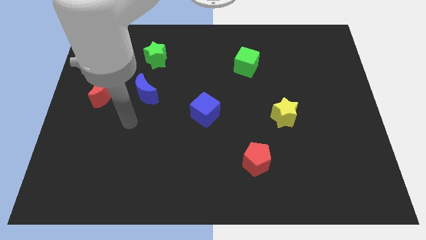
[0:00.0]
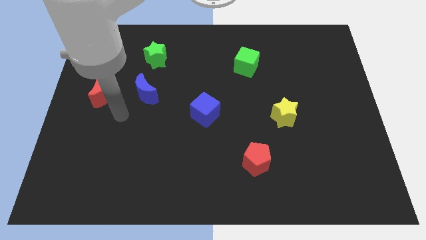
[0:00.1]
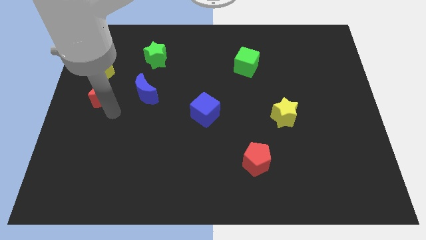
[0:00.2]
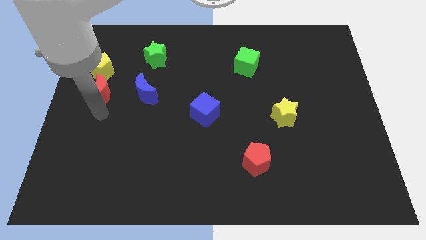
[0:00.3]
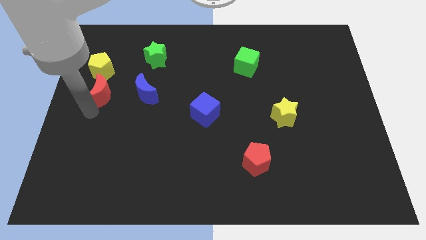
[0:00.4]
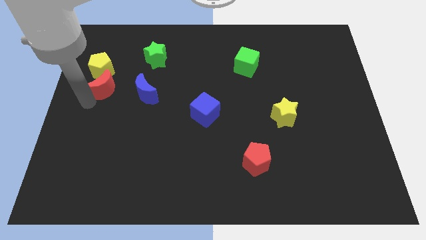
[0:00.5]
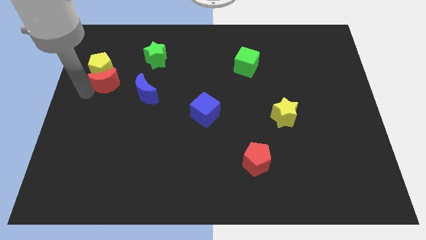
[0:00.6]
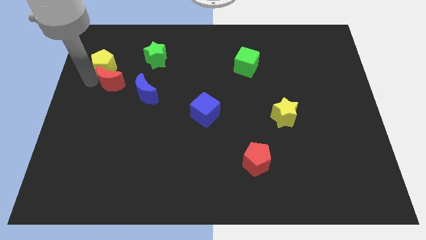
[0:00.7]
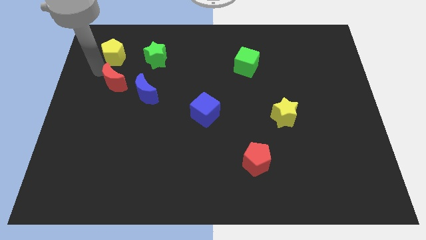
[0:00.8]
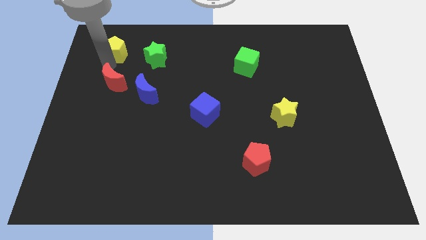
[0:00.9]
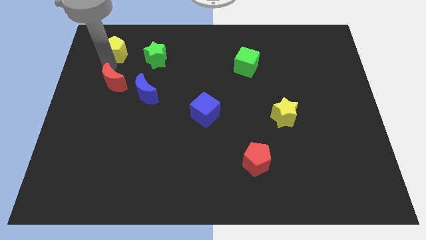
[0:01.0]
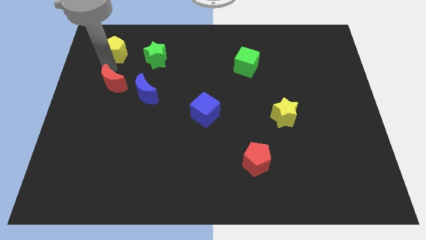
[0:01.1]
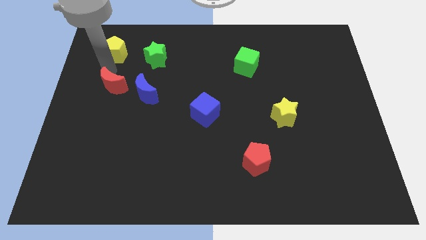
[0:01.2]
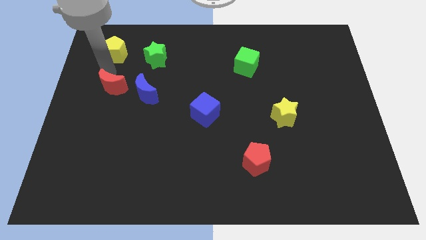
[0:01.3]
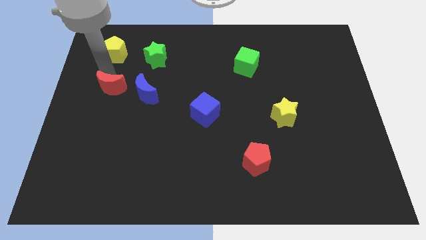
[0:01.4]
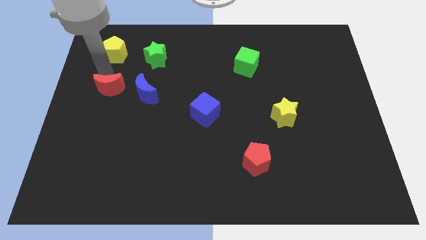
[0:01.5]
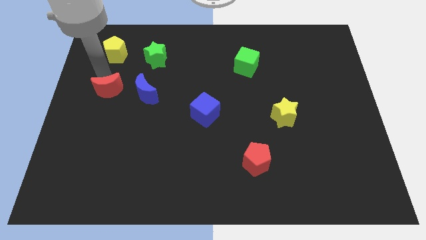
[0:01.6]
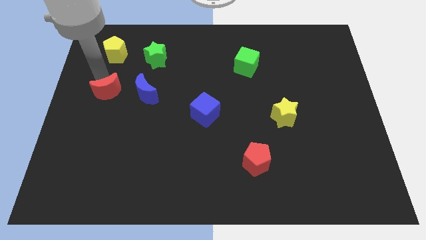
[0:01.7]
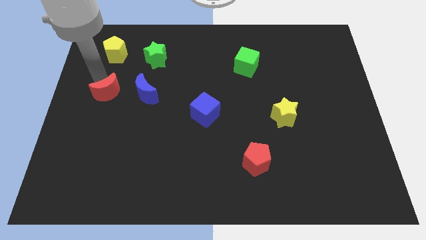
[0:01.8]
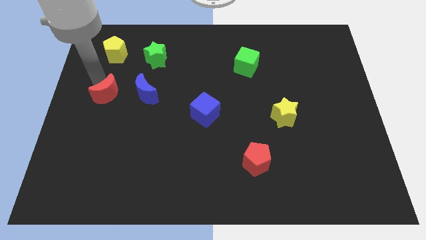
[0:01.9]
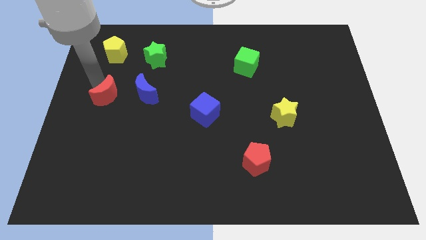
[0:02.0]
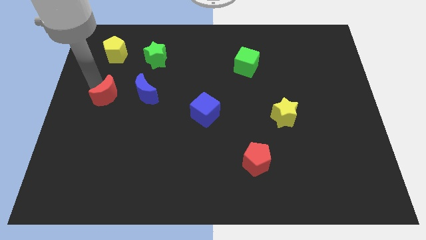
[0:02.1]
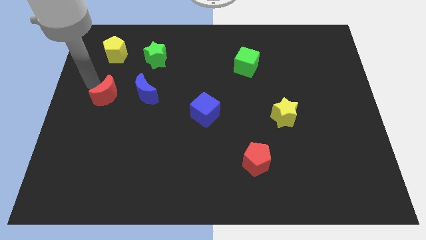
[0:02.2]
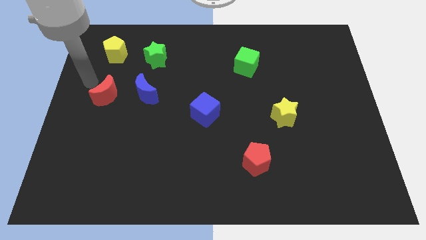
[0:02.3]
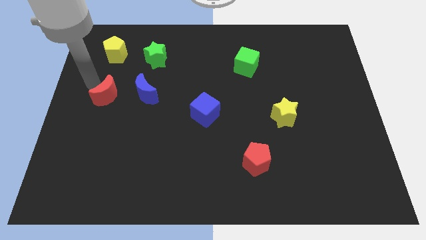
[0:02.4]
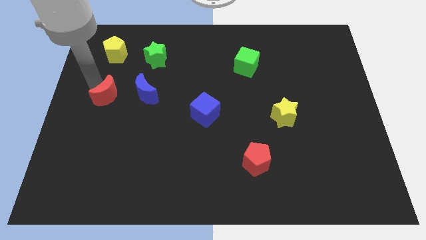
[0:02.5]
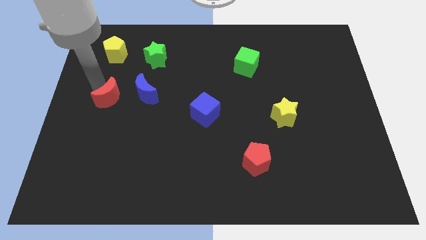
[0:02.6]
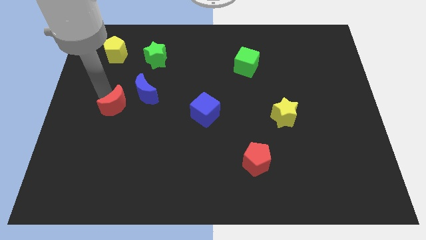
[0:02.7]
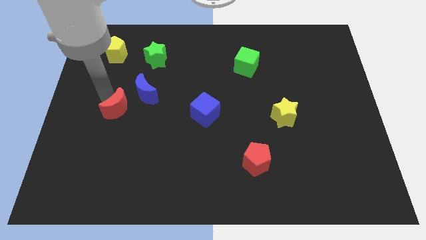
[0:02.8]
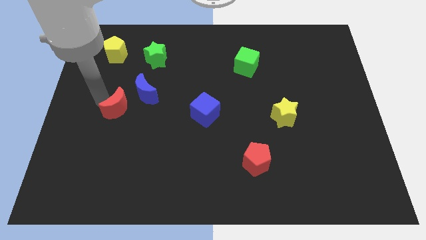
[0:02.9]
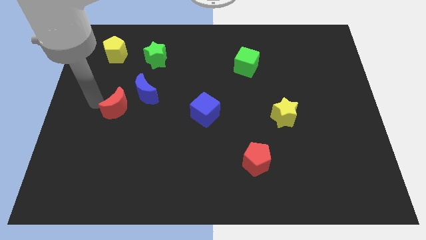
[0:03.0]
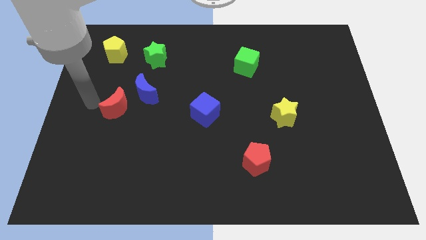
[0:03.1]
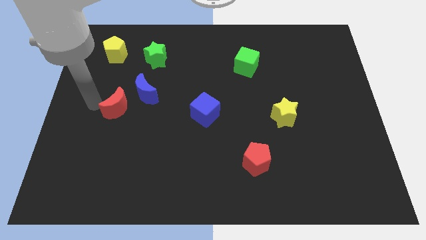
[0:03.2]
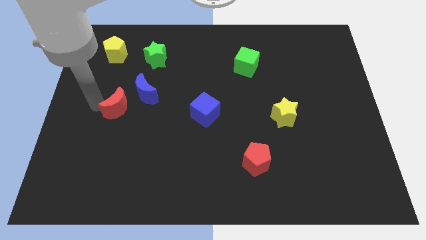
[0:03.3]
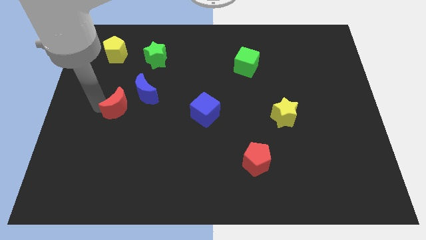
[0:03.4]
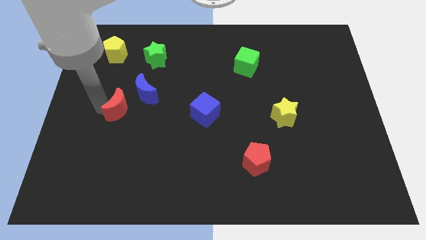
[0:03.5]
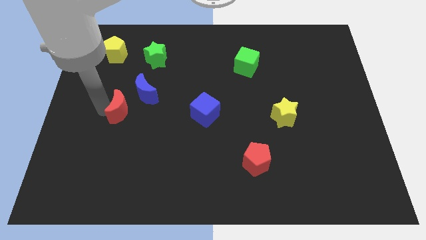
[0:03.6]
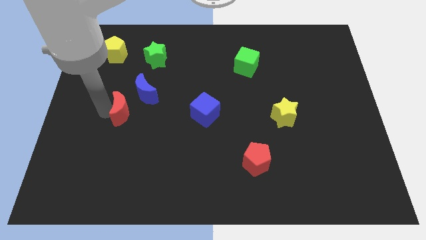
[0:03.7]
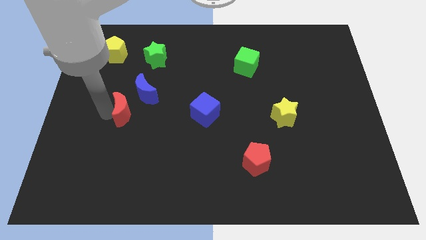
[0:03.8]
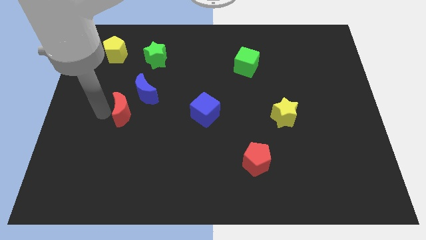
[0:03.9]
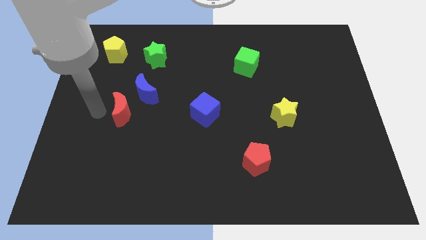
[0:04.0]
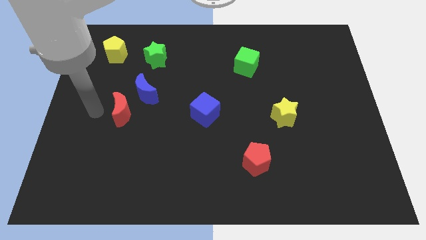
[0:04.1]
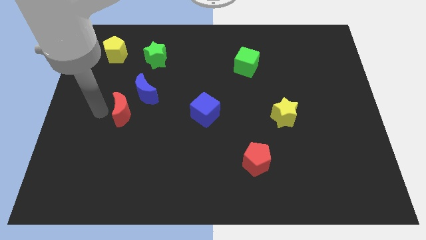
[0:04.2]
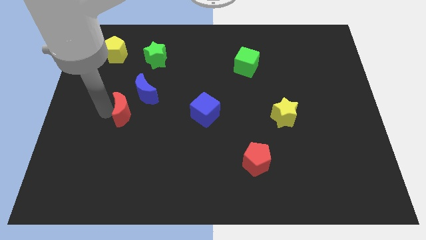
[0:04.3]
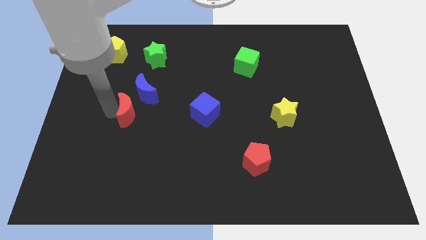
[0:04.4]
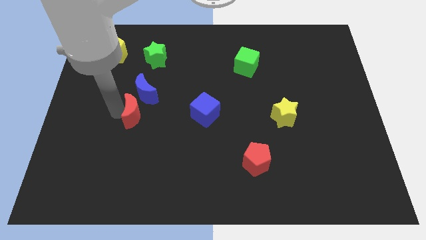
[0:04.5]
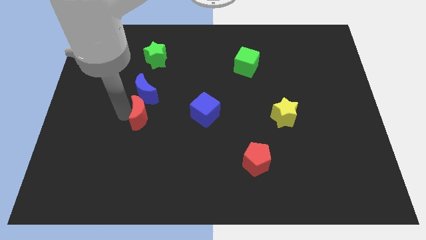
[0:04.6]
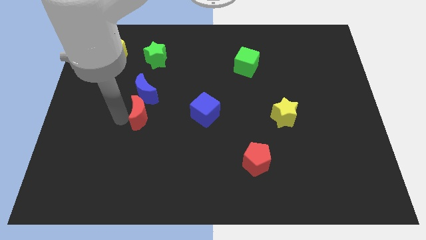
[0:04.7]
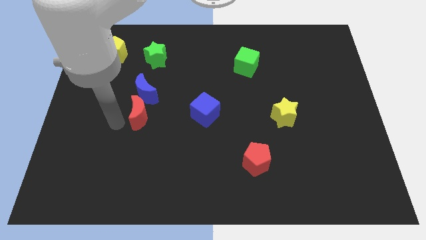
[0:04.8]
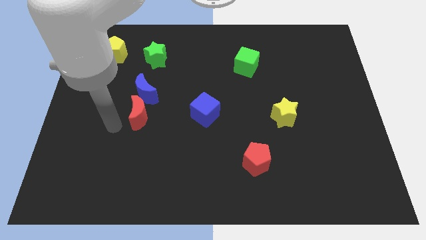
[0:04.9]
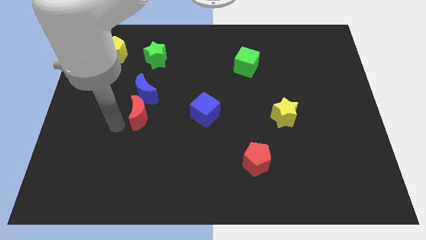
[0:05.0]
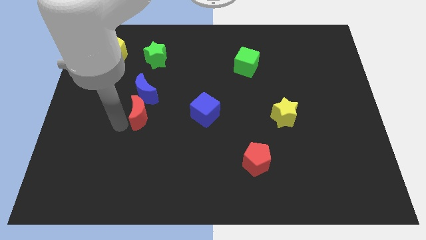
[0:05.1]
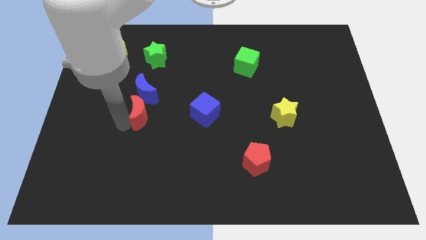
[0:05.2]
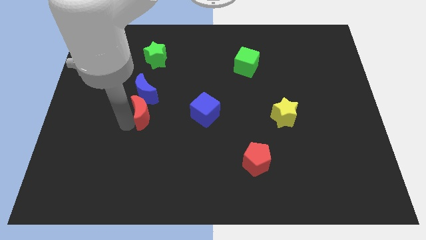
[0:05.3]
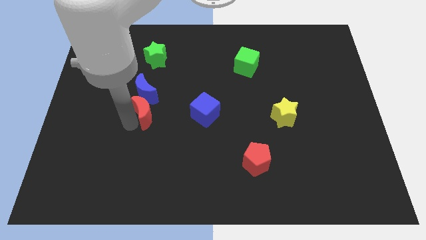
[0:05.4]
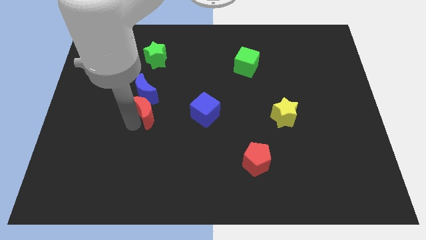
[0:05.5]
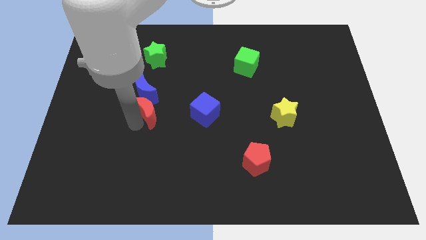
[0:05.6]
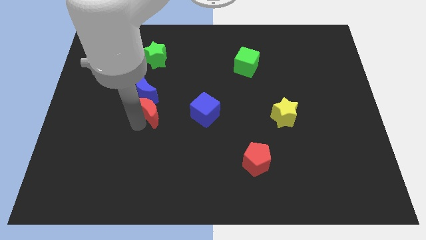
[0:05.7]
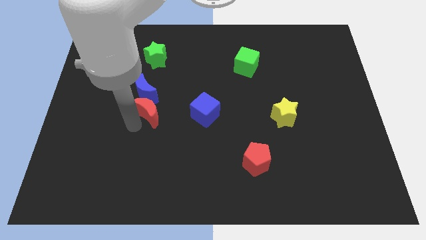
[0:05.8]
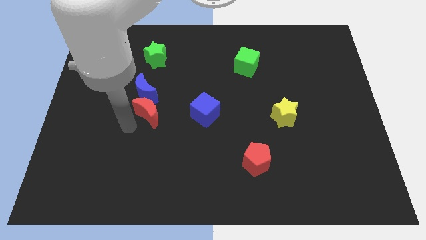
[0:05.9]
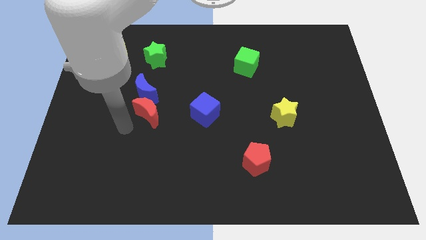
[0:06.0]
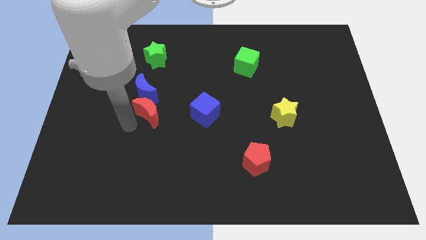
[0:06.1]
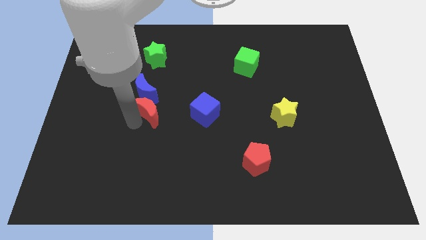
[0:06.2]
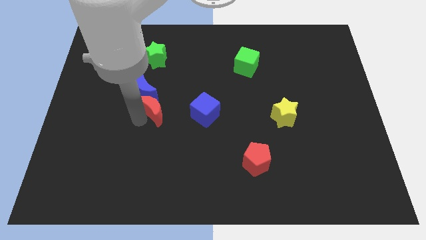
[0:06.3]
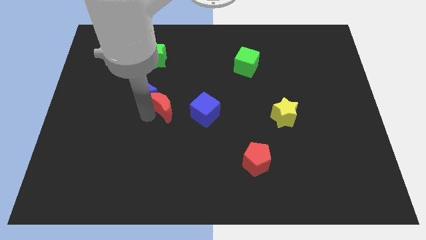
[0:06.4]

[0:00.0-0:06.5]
put the red moon to the right of the blue moon
